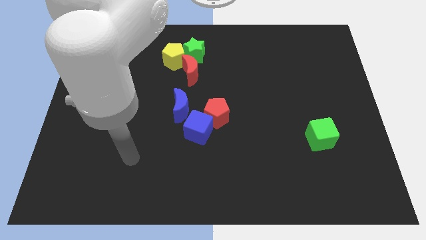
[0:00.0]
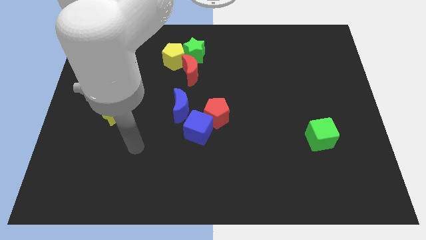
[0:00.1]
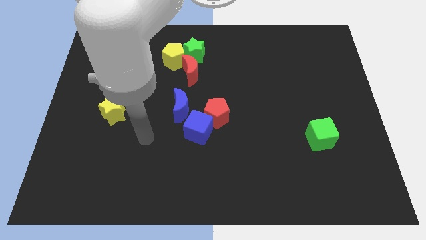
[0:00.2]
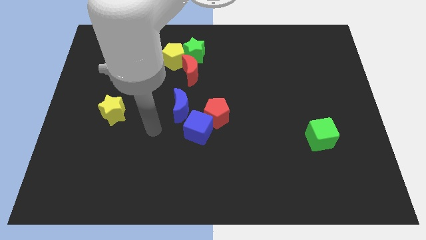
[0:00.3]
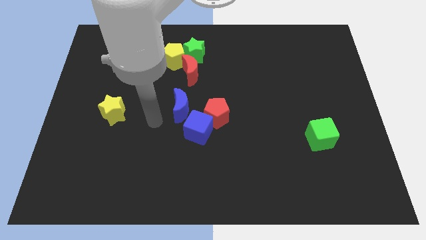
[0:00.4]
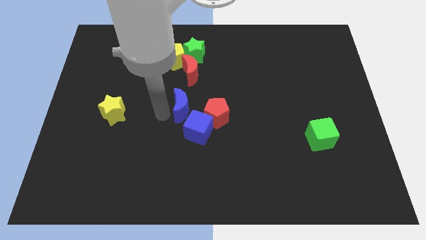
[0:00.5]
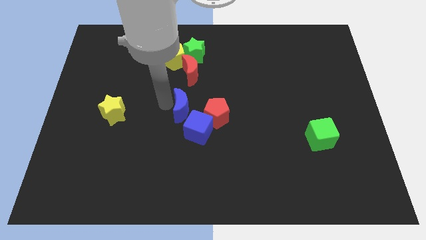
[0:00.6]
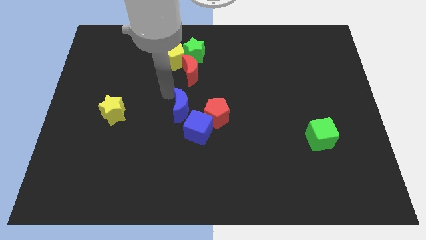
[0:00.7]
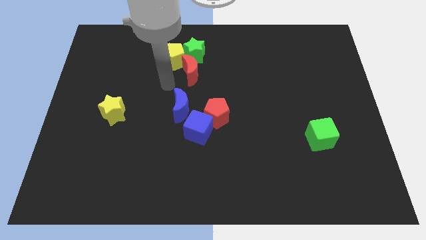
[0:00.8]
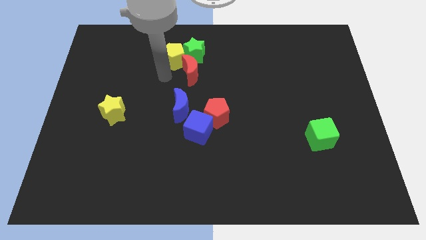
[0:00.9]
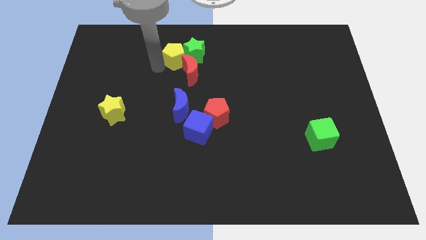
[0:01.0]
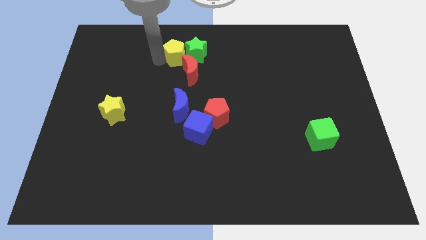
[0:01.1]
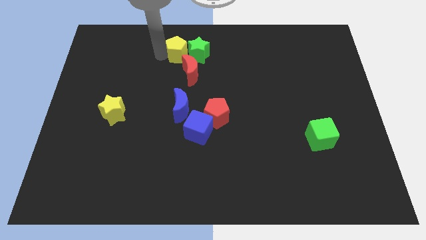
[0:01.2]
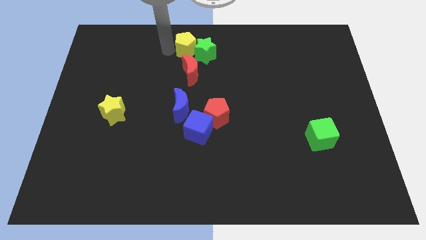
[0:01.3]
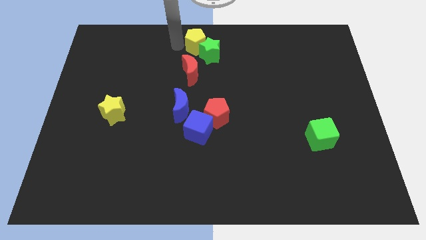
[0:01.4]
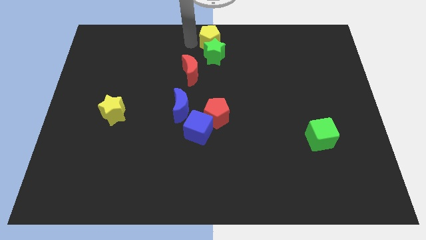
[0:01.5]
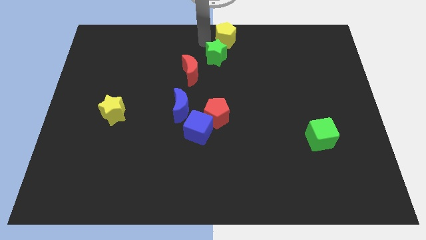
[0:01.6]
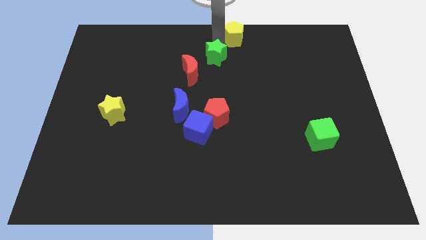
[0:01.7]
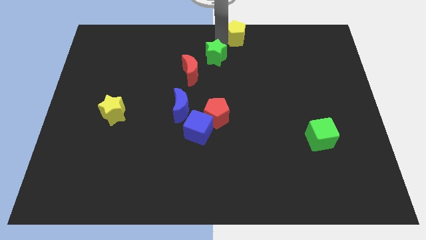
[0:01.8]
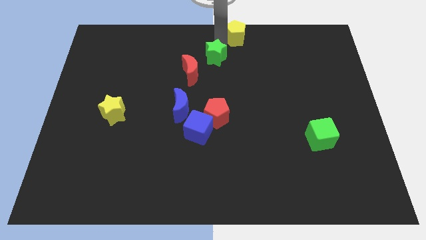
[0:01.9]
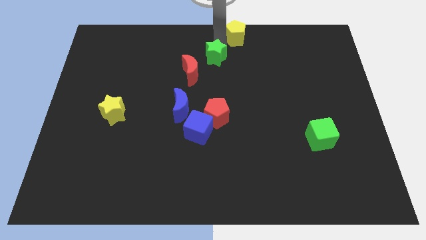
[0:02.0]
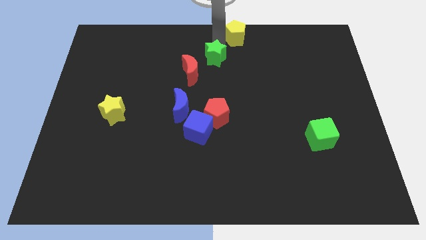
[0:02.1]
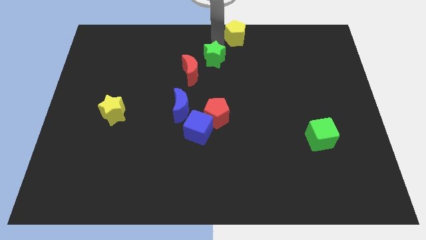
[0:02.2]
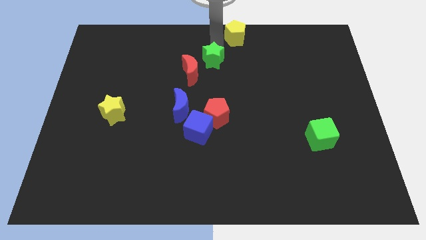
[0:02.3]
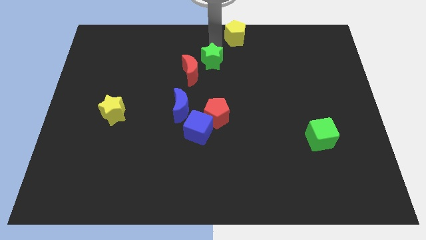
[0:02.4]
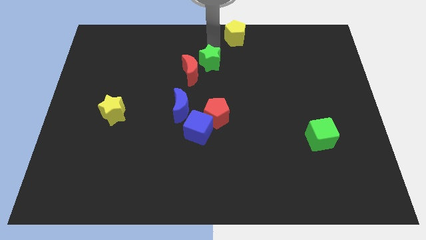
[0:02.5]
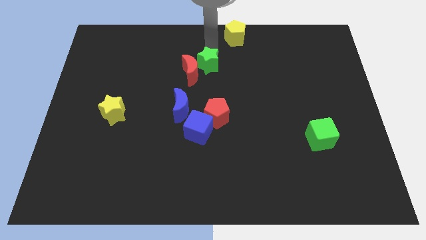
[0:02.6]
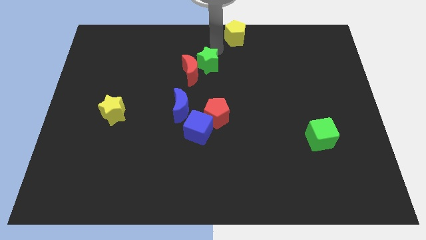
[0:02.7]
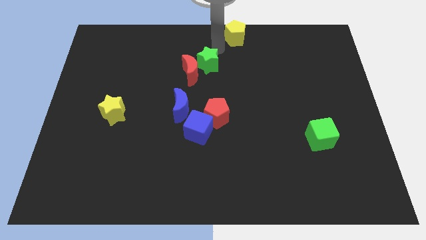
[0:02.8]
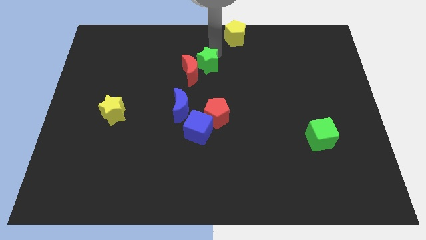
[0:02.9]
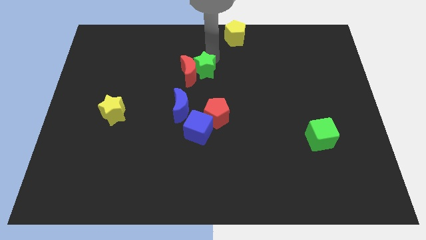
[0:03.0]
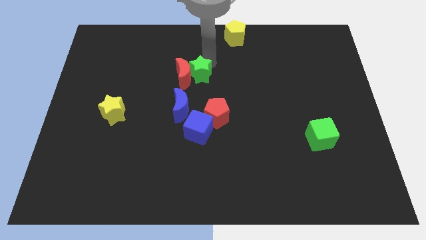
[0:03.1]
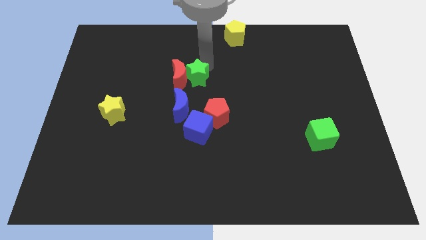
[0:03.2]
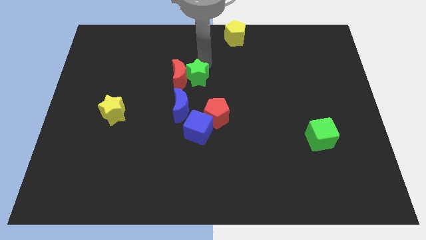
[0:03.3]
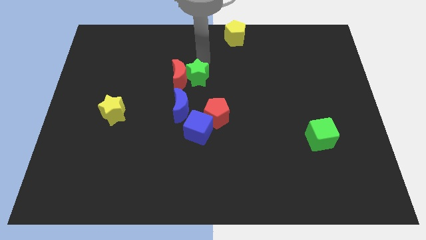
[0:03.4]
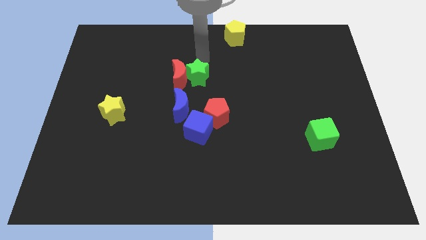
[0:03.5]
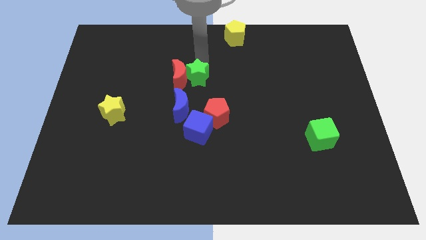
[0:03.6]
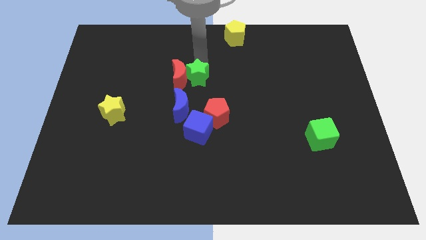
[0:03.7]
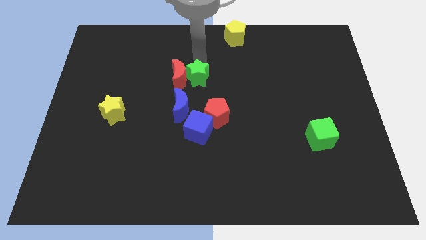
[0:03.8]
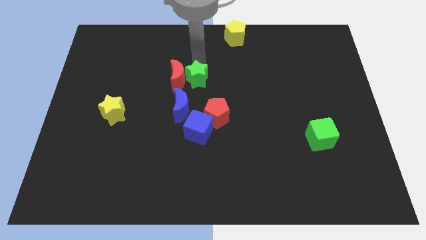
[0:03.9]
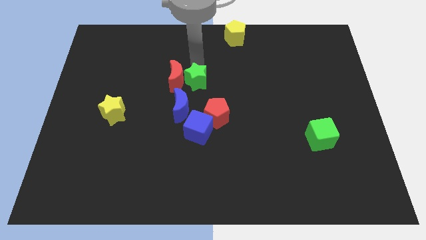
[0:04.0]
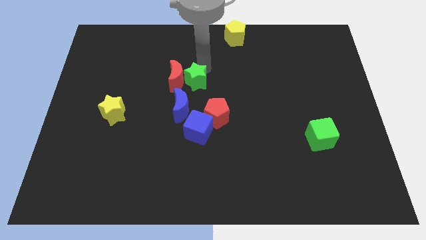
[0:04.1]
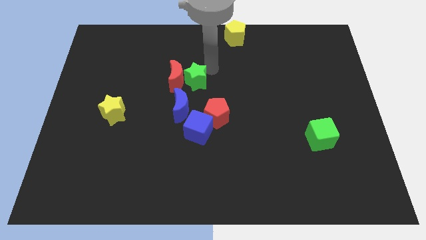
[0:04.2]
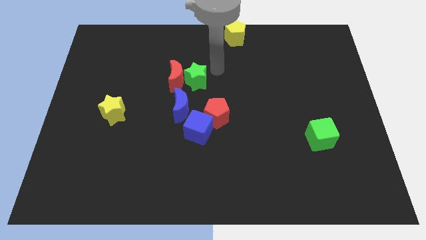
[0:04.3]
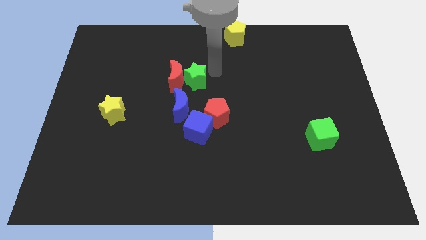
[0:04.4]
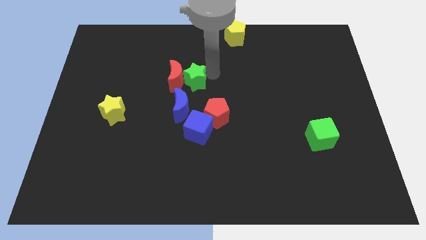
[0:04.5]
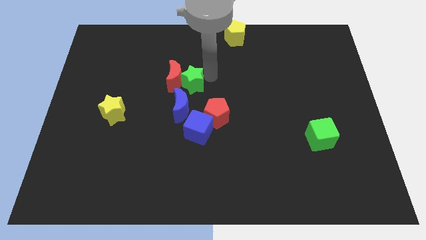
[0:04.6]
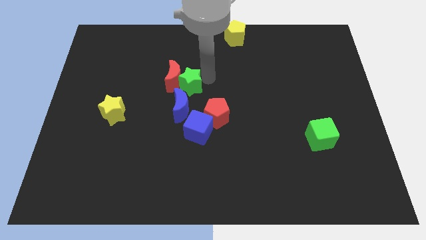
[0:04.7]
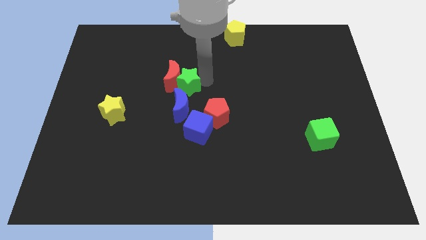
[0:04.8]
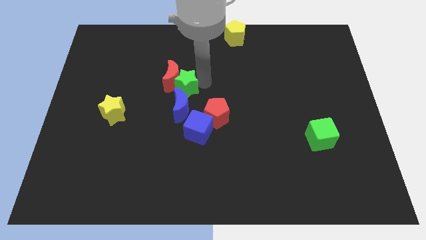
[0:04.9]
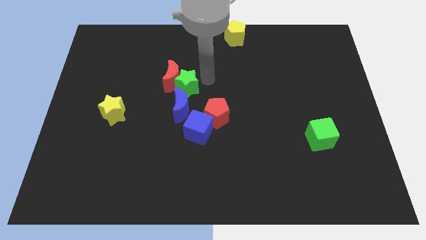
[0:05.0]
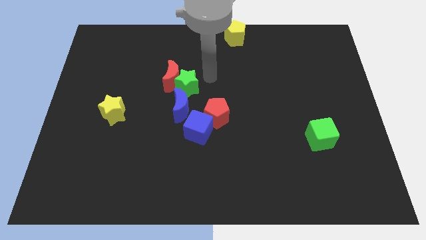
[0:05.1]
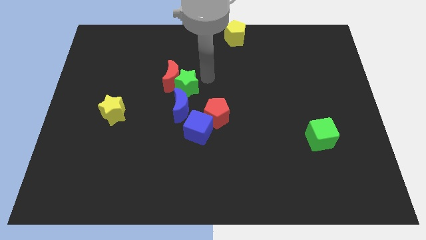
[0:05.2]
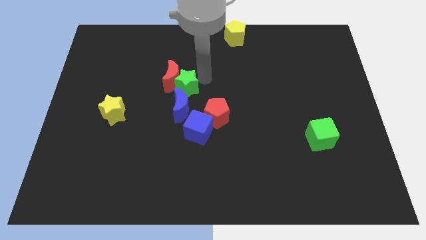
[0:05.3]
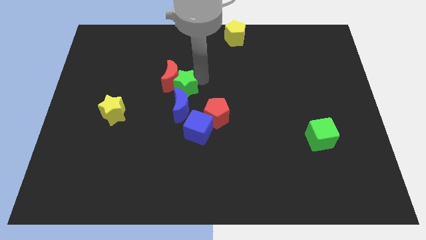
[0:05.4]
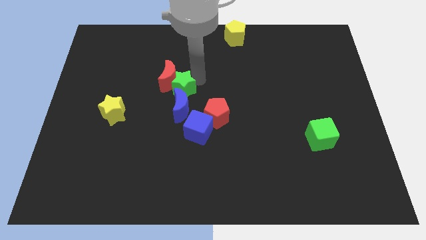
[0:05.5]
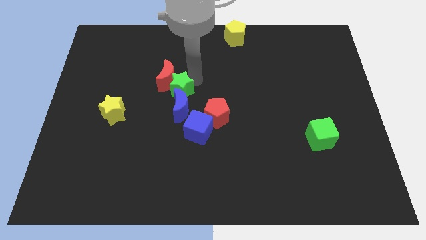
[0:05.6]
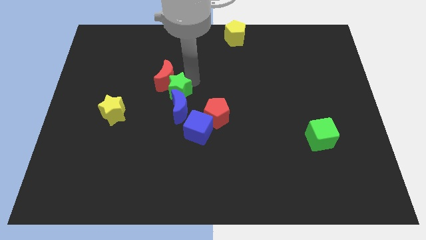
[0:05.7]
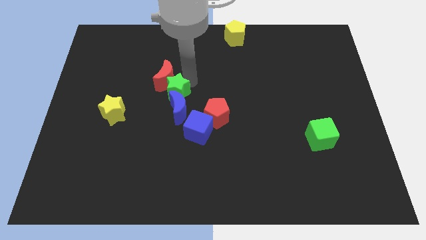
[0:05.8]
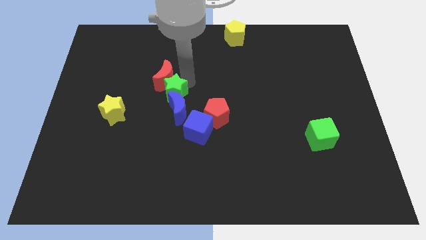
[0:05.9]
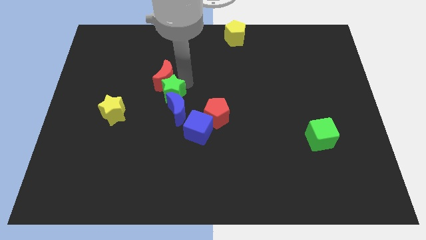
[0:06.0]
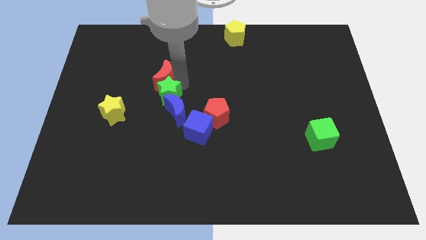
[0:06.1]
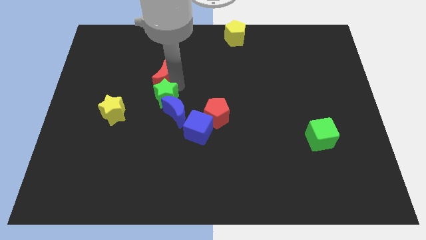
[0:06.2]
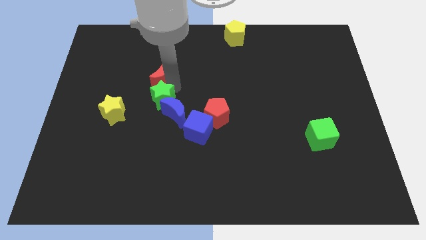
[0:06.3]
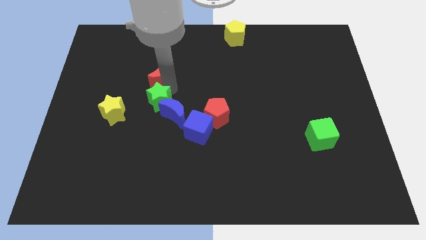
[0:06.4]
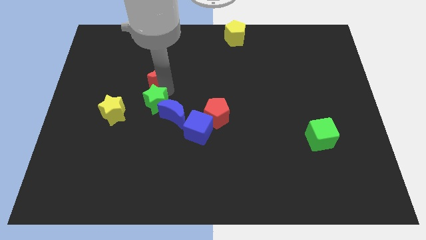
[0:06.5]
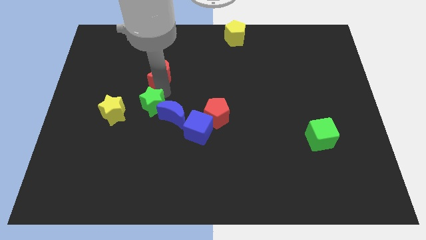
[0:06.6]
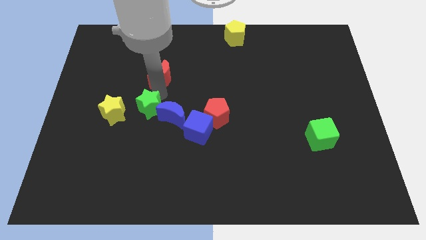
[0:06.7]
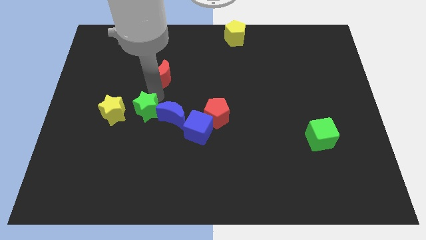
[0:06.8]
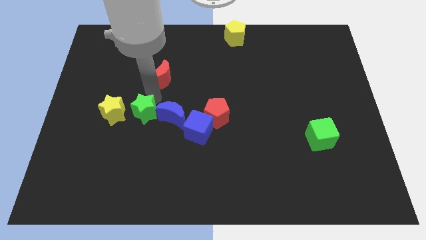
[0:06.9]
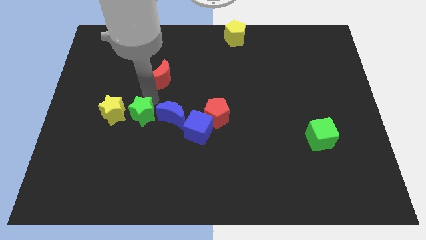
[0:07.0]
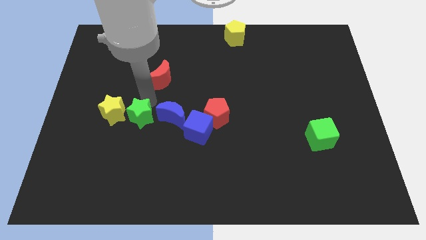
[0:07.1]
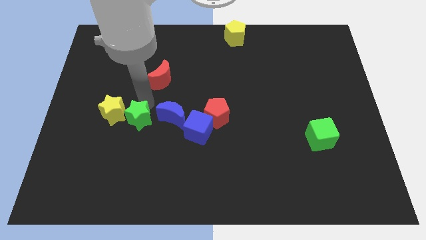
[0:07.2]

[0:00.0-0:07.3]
push the green star to the bottom left side of the blue moon
